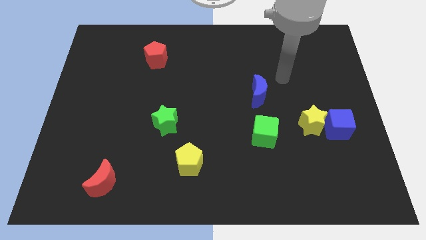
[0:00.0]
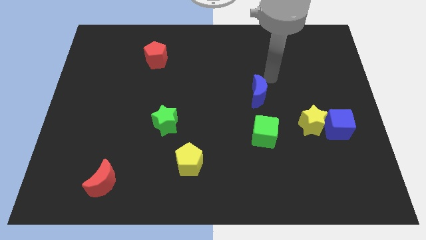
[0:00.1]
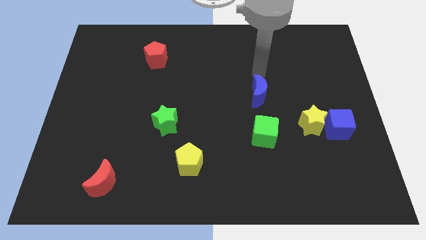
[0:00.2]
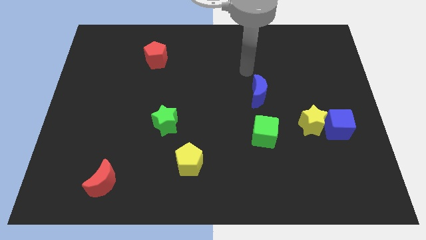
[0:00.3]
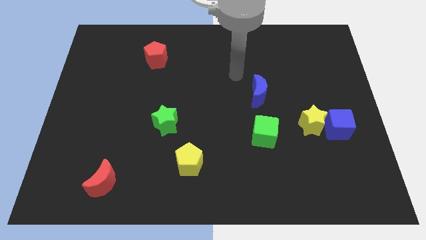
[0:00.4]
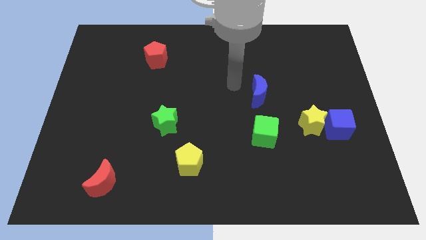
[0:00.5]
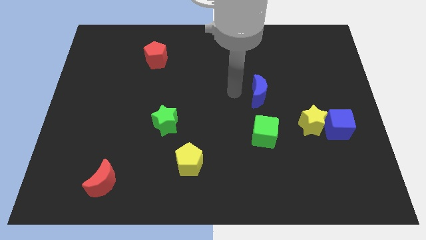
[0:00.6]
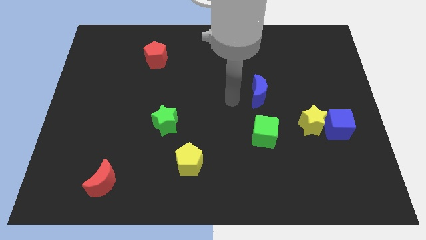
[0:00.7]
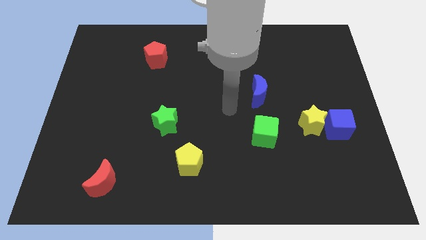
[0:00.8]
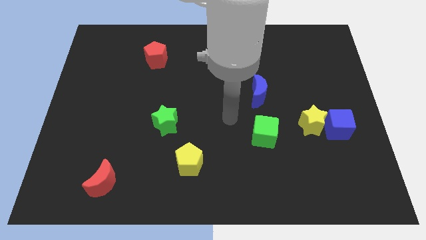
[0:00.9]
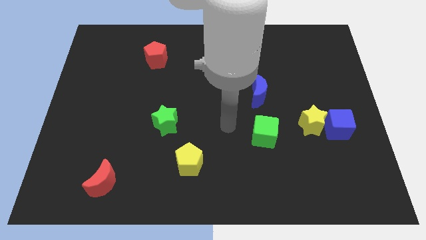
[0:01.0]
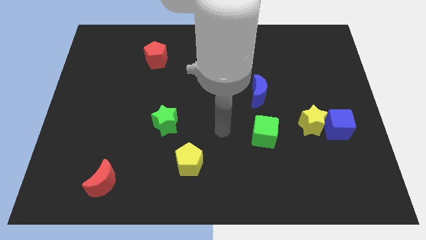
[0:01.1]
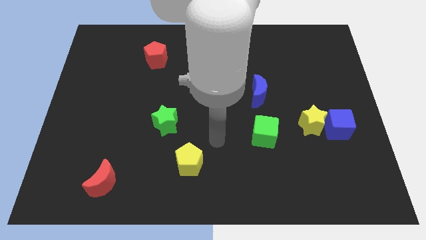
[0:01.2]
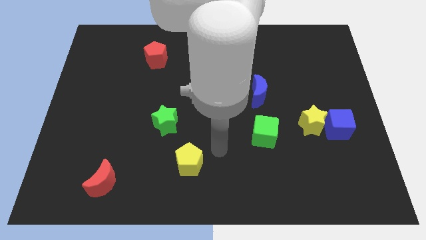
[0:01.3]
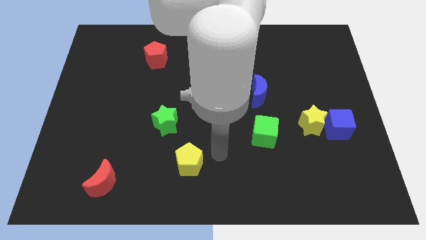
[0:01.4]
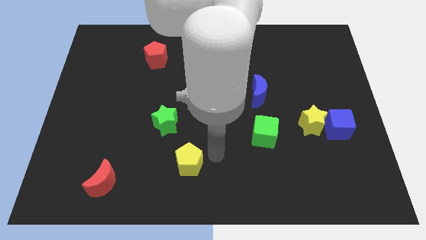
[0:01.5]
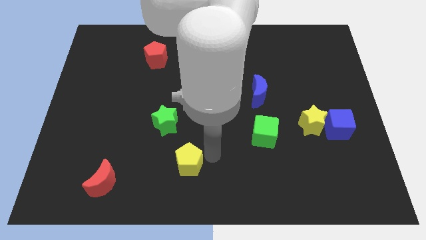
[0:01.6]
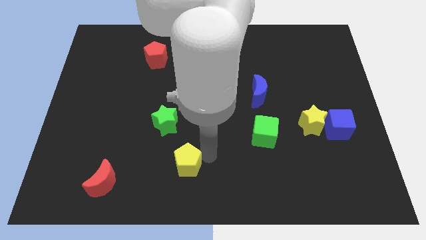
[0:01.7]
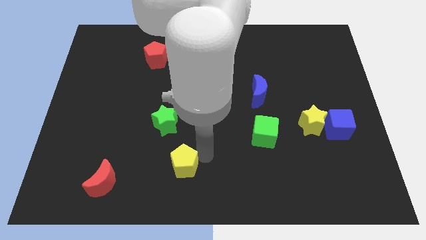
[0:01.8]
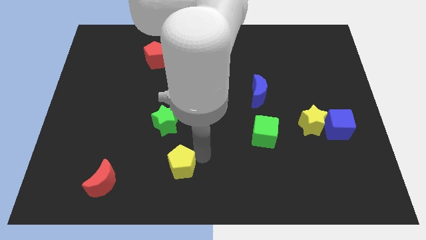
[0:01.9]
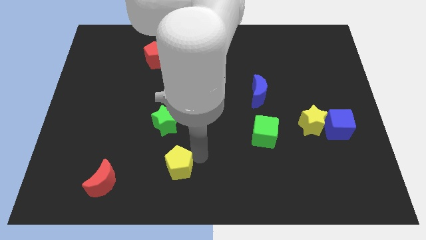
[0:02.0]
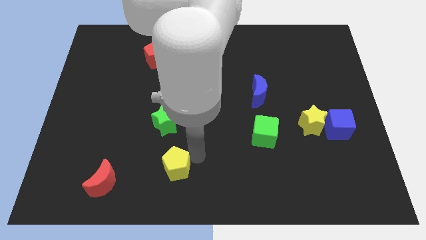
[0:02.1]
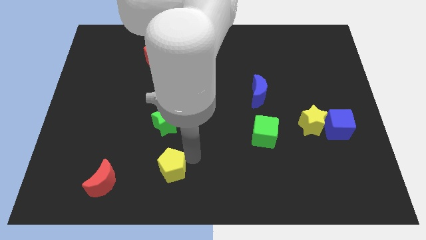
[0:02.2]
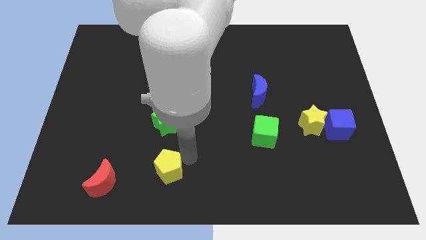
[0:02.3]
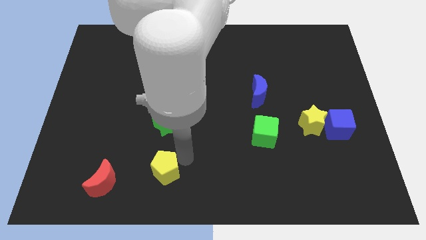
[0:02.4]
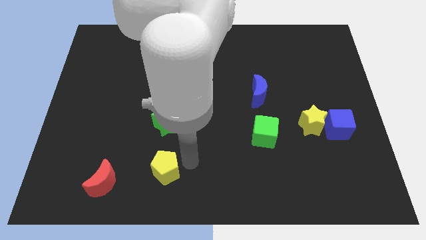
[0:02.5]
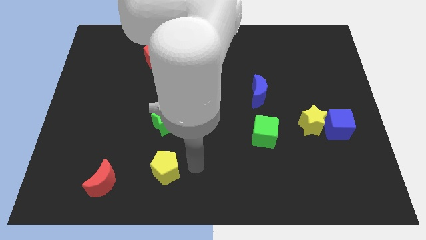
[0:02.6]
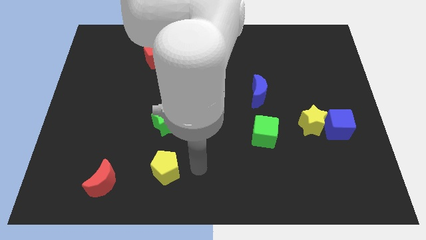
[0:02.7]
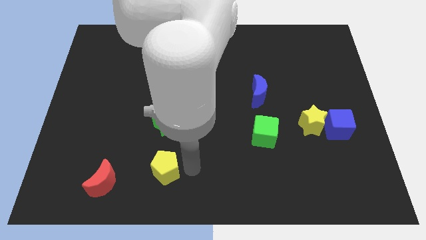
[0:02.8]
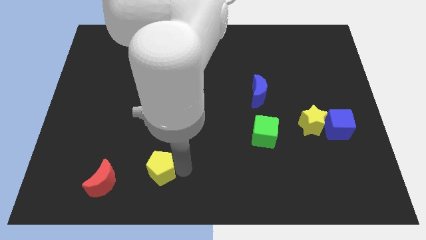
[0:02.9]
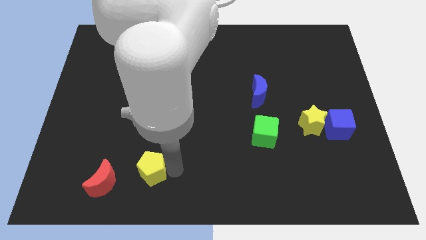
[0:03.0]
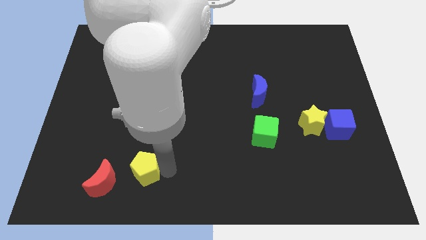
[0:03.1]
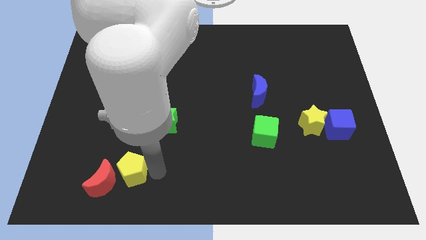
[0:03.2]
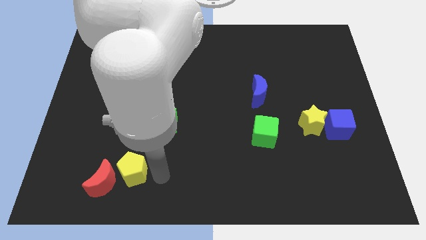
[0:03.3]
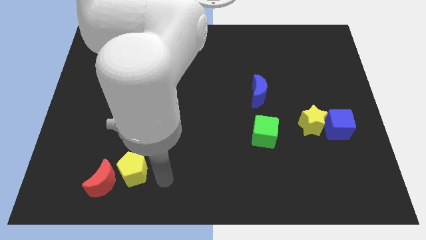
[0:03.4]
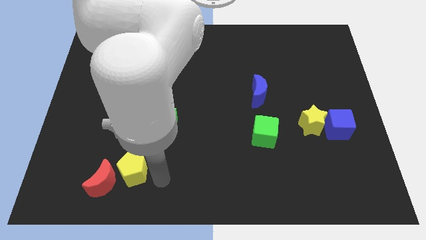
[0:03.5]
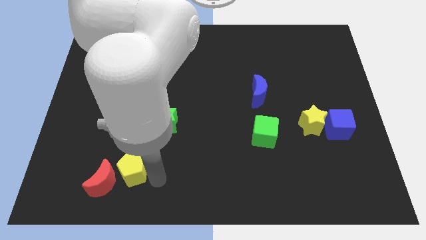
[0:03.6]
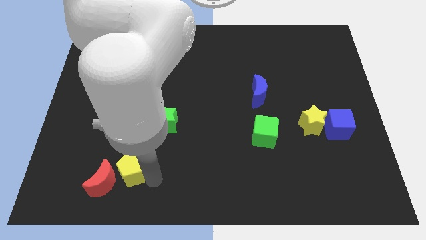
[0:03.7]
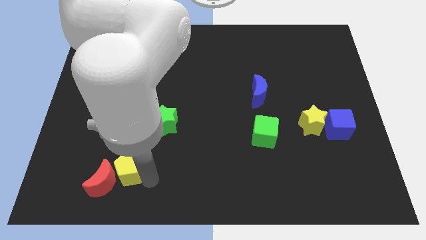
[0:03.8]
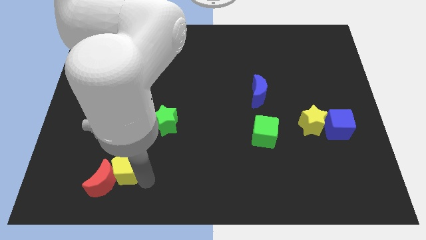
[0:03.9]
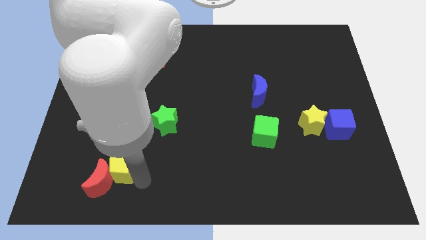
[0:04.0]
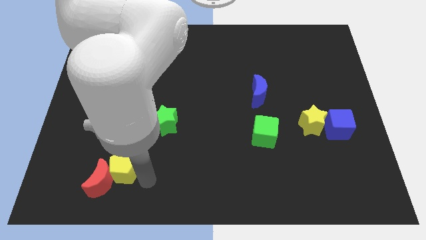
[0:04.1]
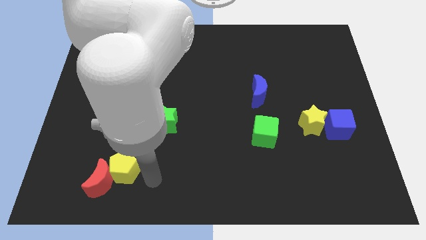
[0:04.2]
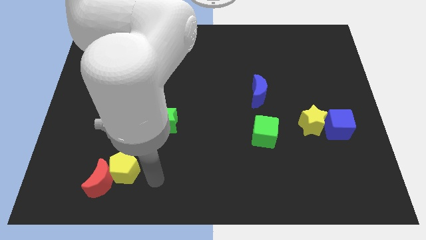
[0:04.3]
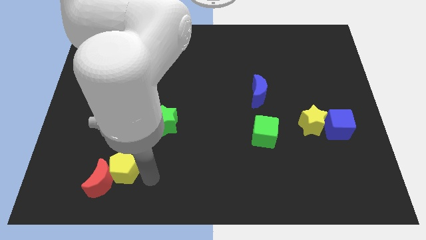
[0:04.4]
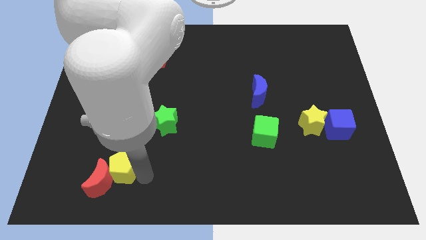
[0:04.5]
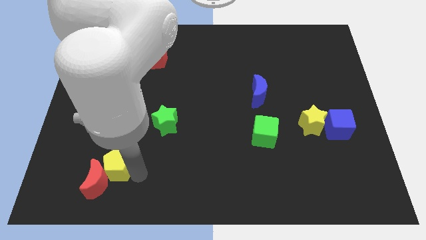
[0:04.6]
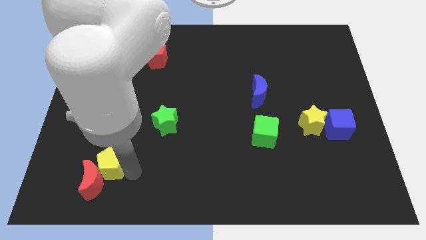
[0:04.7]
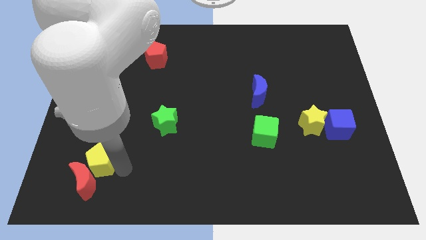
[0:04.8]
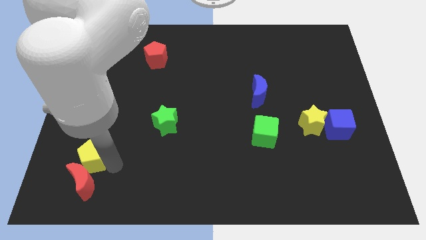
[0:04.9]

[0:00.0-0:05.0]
put the yellow pentagon to the top left of the red moon

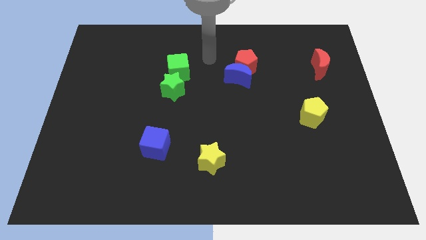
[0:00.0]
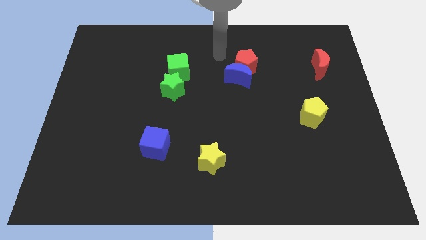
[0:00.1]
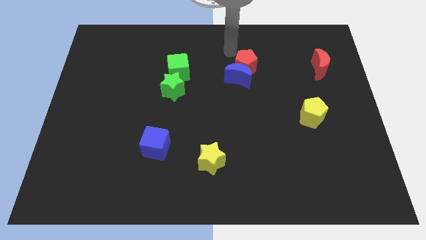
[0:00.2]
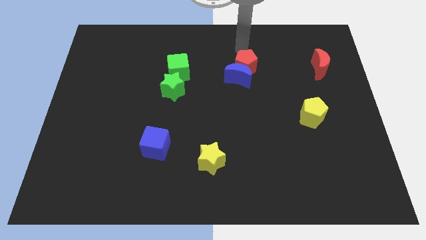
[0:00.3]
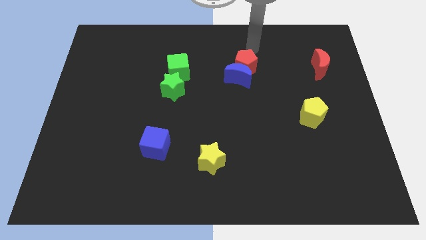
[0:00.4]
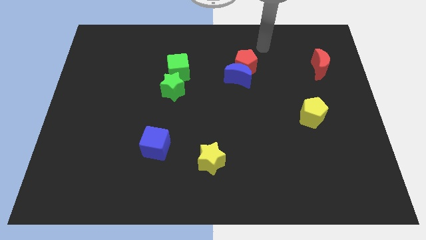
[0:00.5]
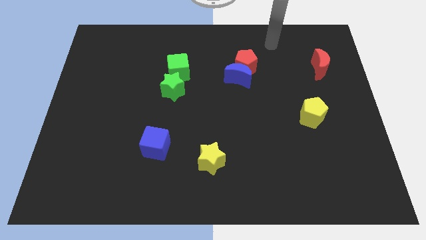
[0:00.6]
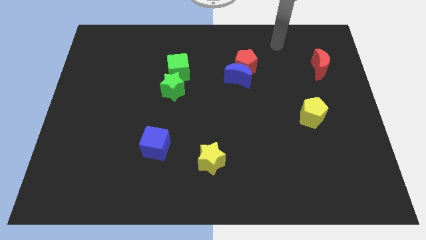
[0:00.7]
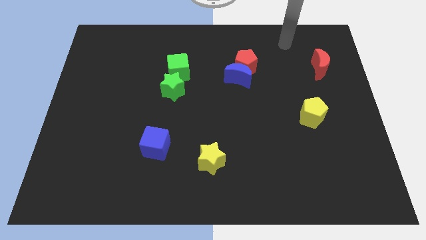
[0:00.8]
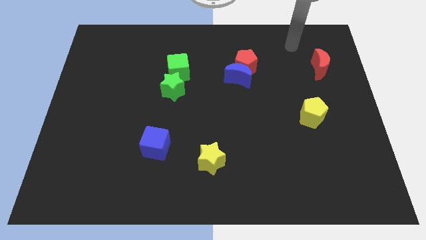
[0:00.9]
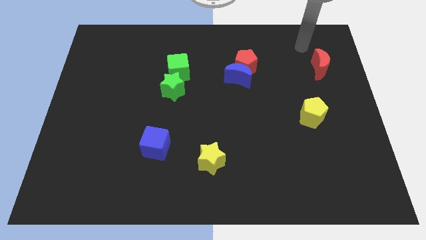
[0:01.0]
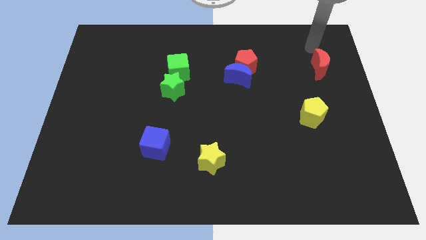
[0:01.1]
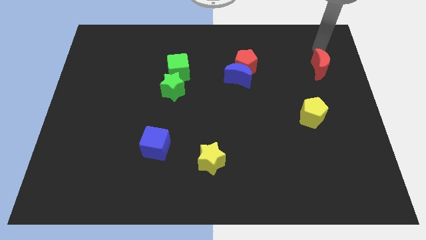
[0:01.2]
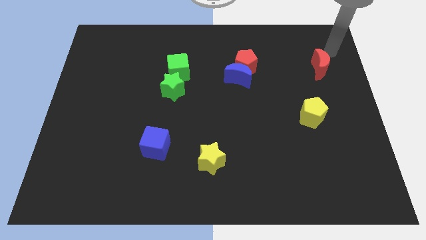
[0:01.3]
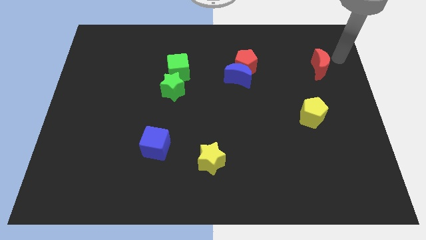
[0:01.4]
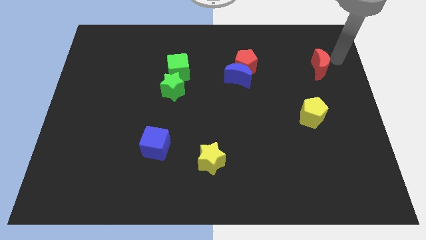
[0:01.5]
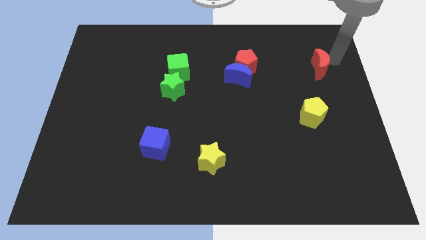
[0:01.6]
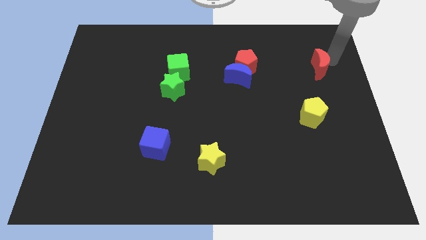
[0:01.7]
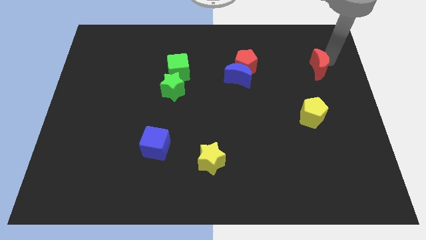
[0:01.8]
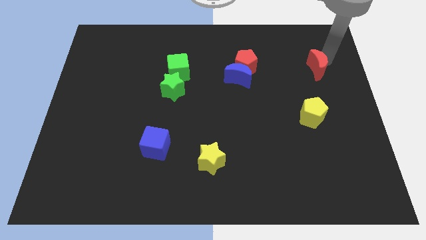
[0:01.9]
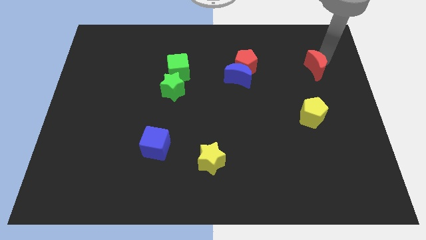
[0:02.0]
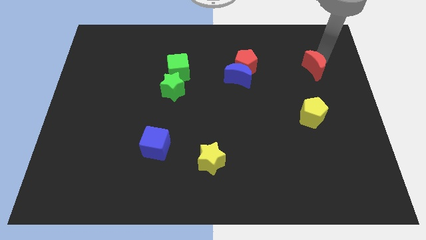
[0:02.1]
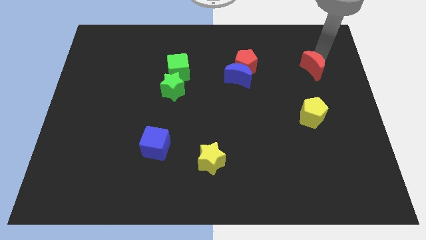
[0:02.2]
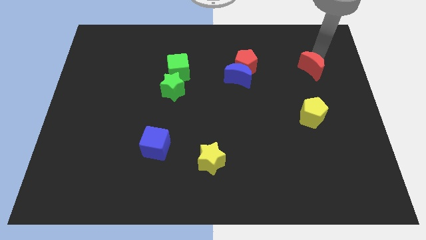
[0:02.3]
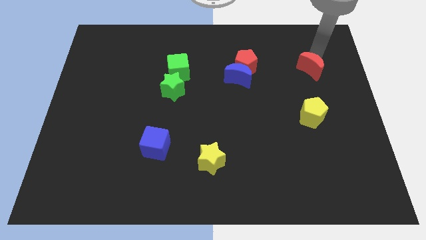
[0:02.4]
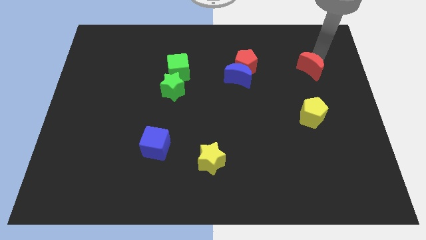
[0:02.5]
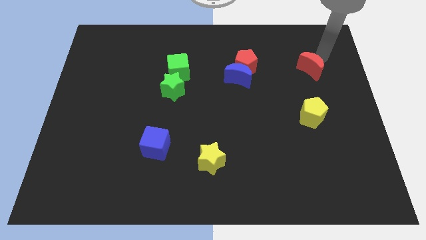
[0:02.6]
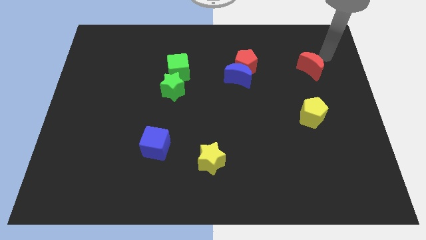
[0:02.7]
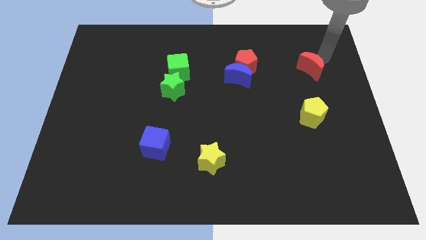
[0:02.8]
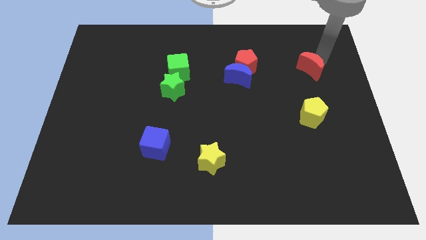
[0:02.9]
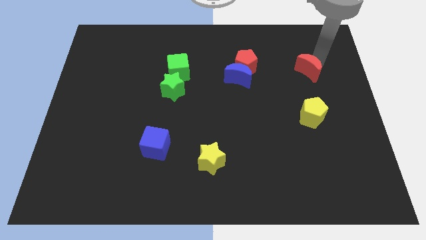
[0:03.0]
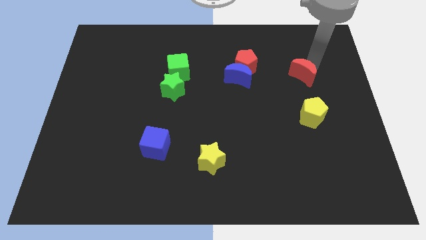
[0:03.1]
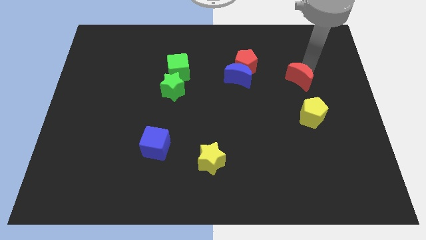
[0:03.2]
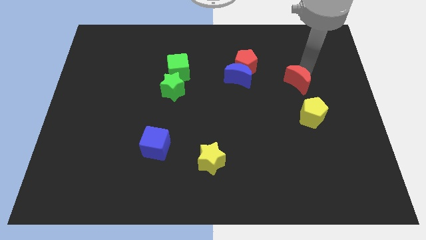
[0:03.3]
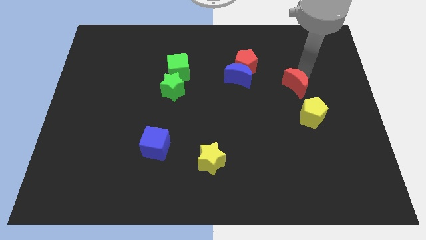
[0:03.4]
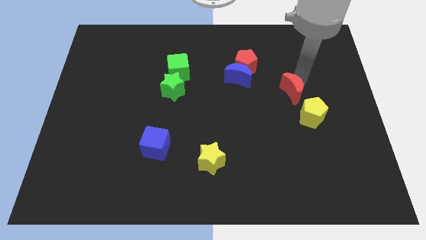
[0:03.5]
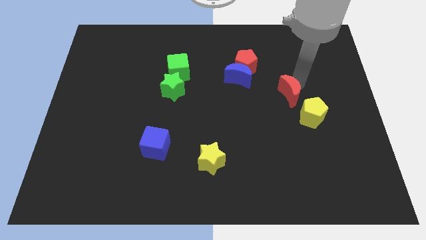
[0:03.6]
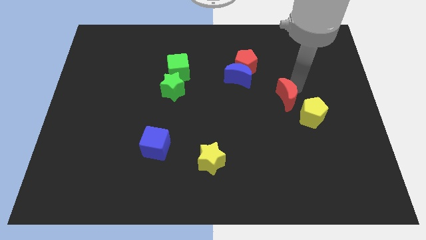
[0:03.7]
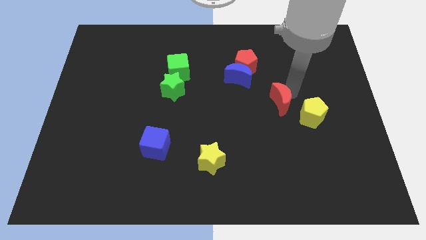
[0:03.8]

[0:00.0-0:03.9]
slide the red moon to the left side of the yellow pentagon
